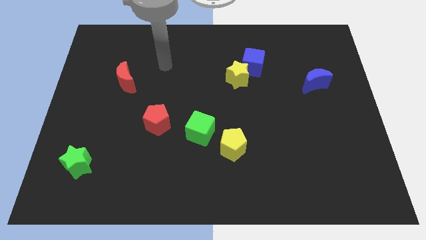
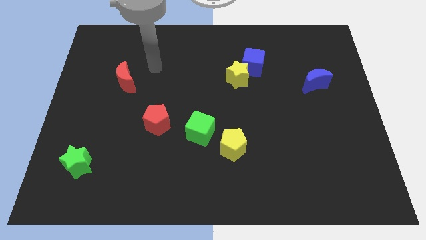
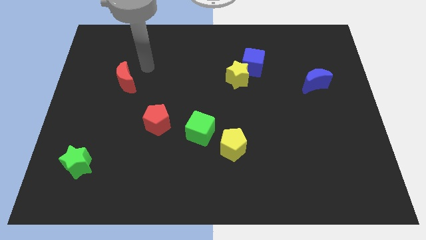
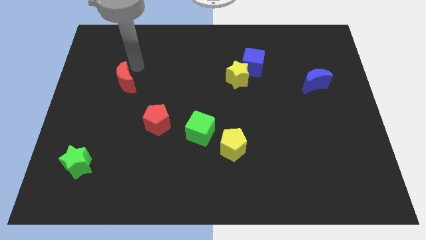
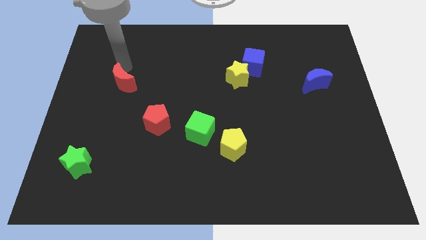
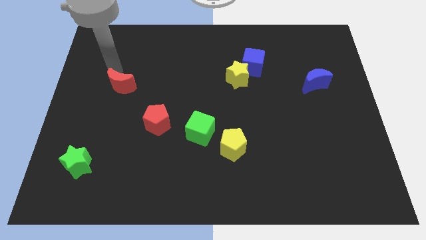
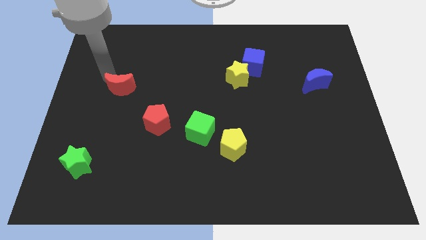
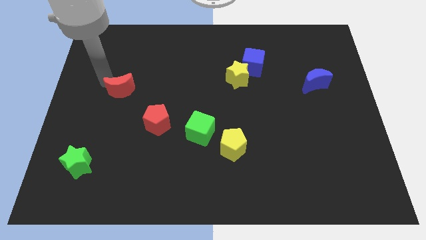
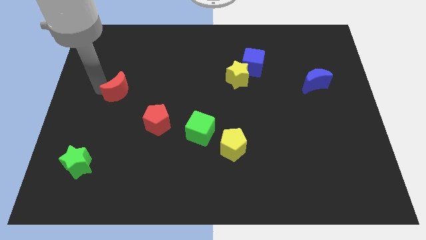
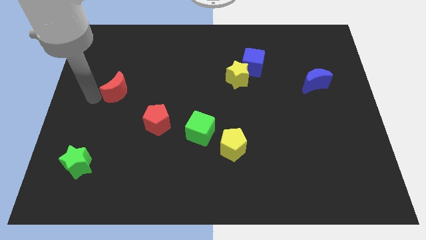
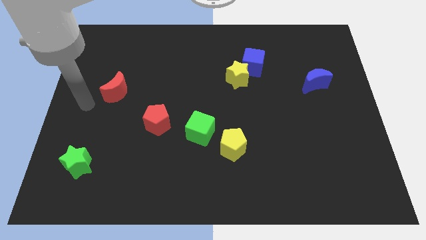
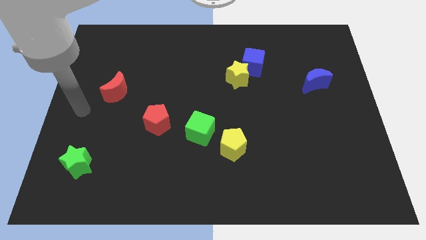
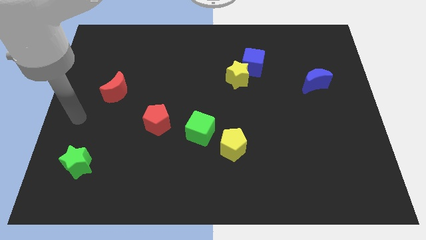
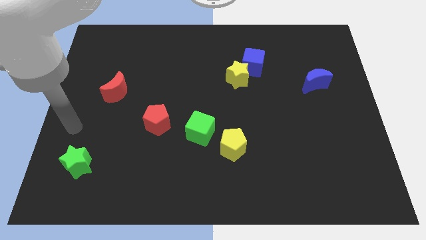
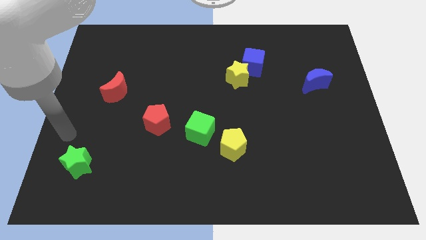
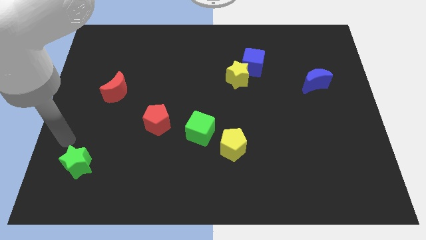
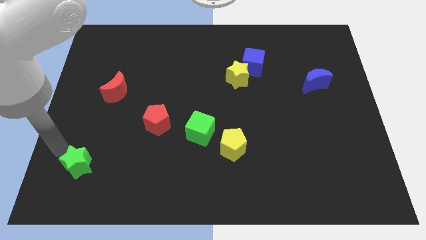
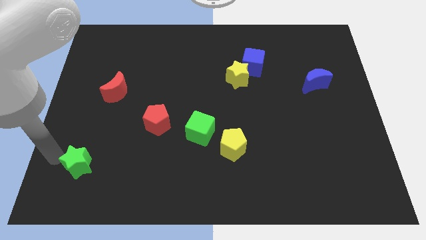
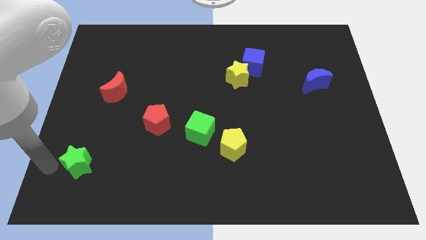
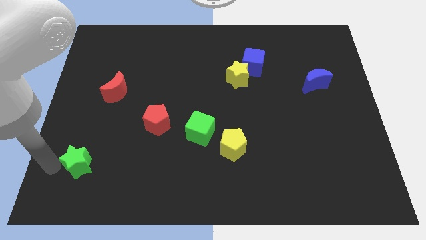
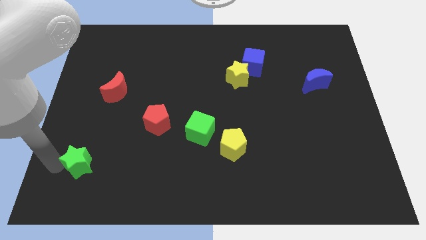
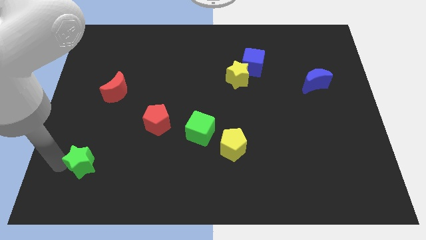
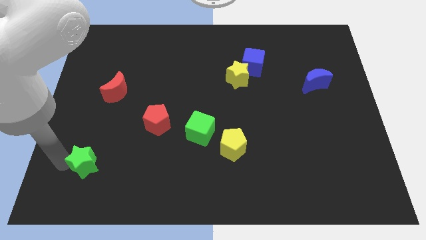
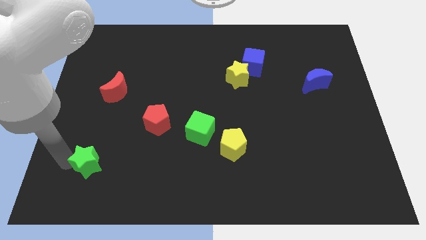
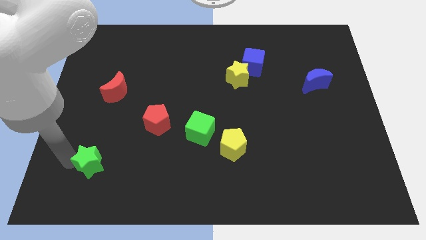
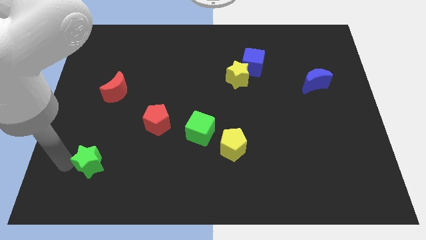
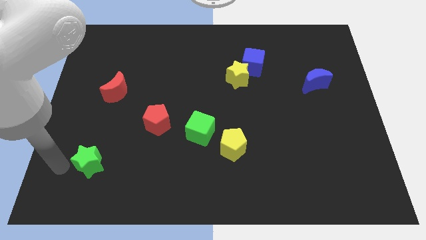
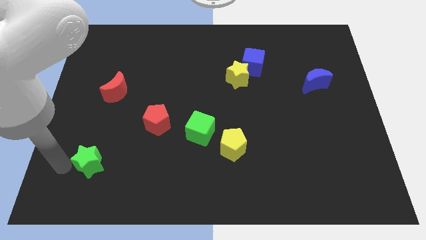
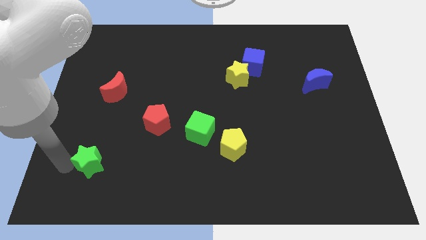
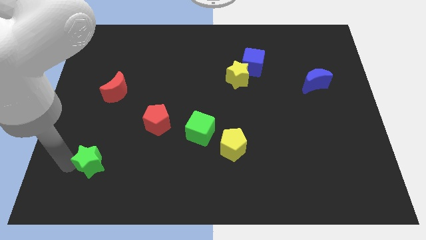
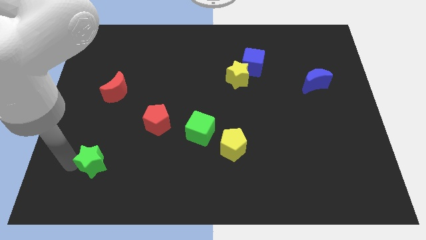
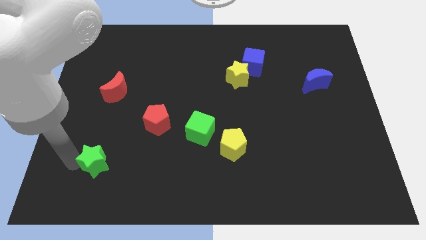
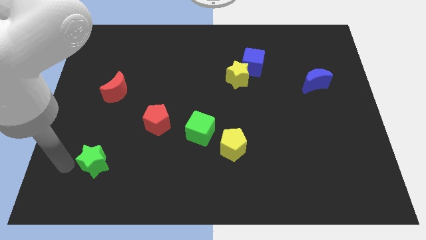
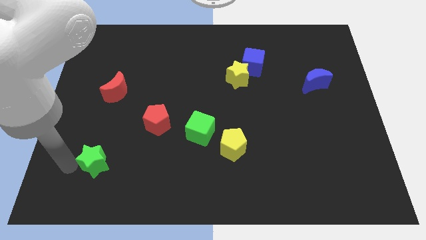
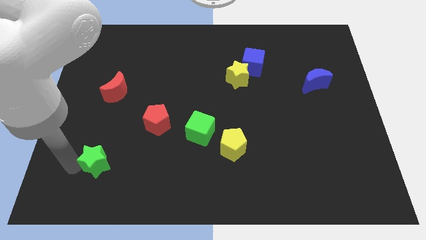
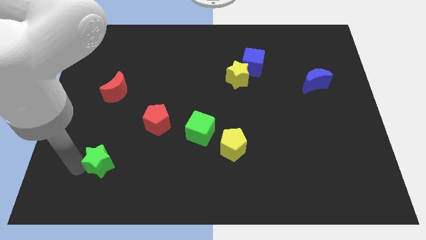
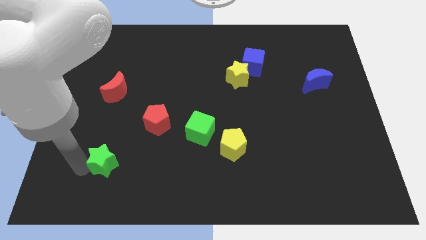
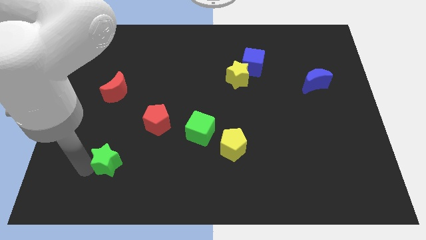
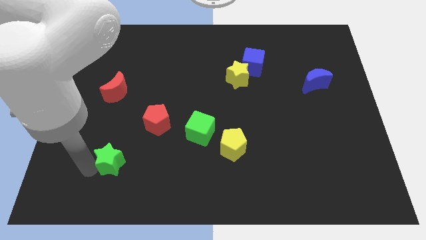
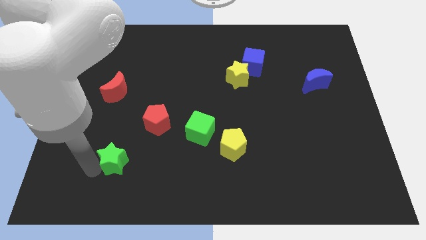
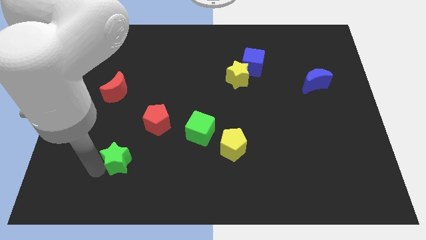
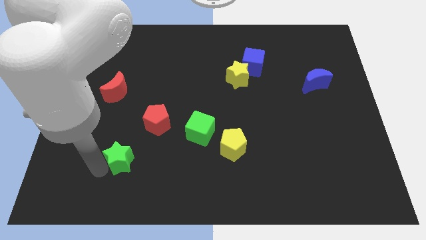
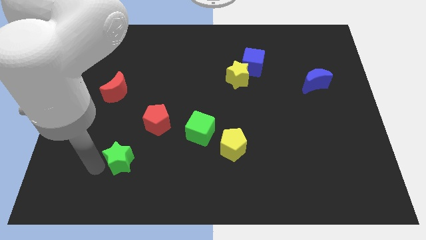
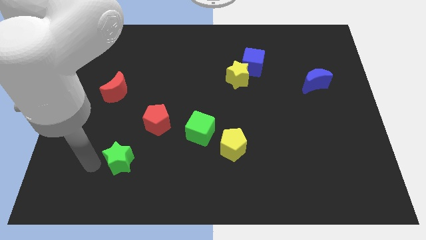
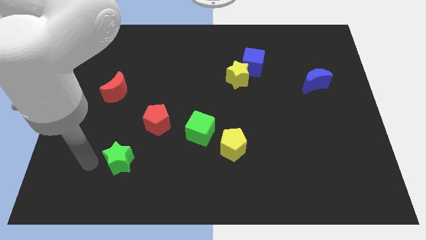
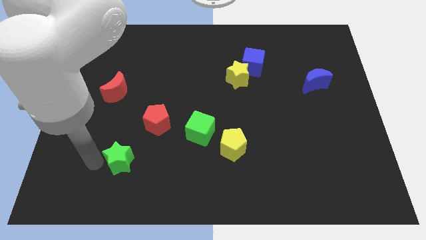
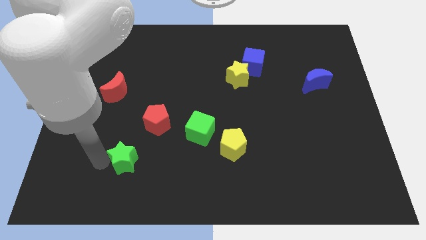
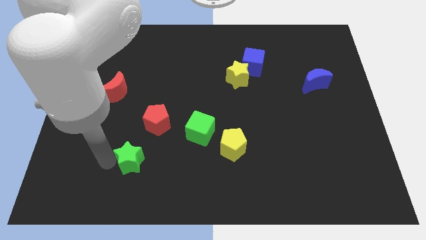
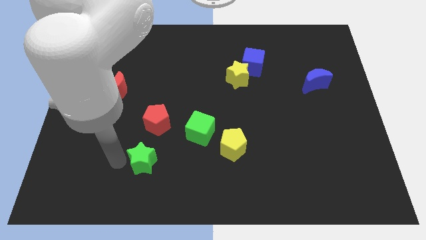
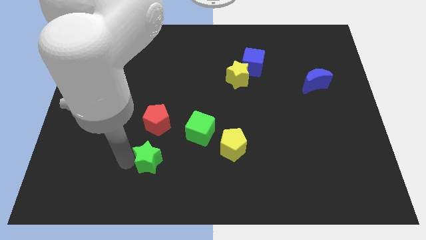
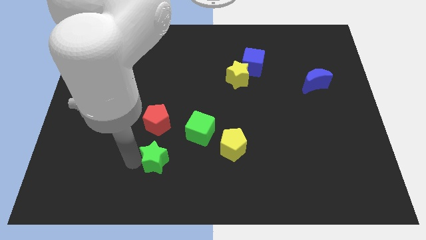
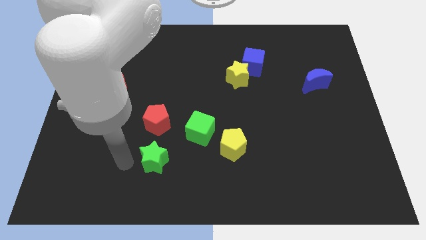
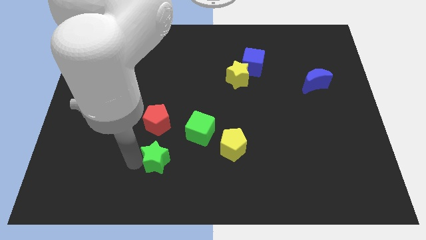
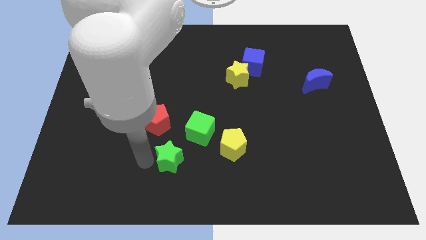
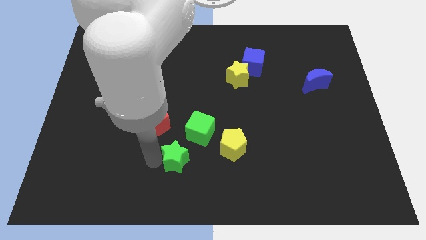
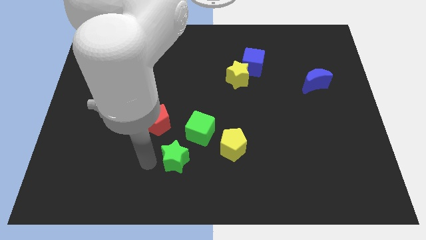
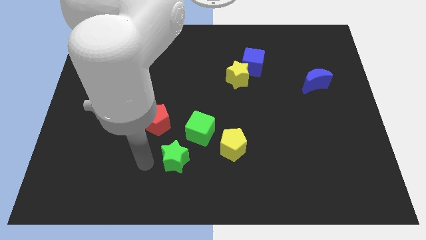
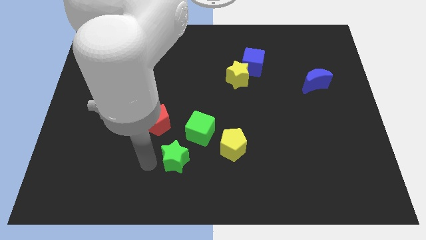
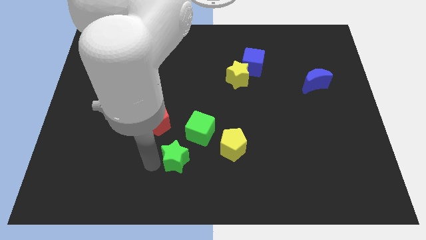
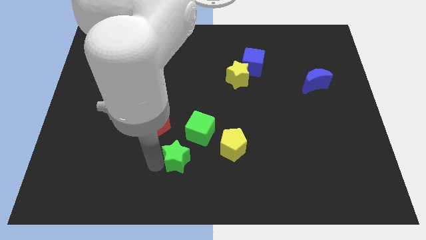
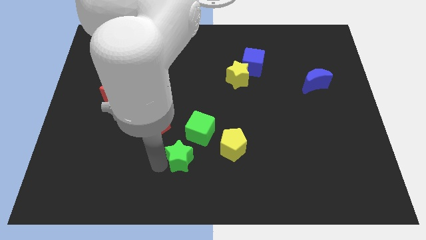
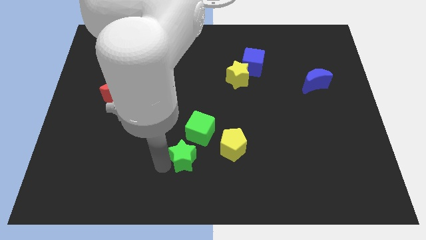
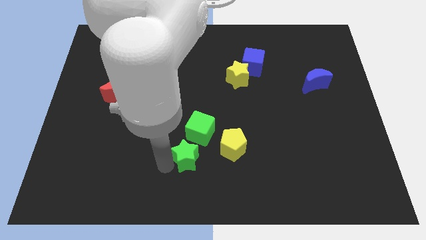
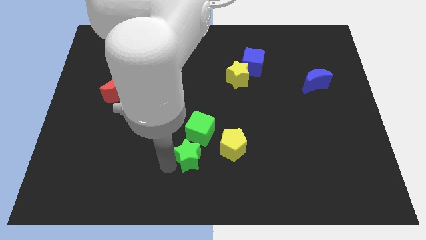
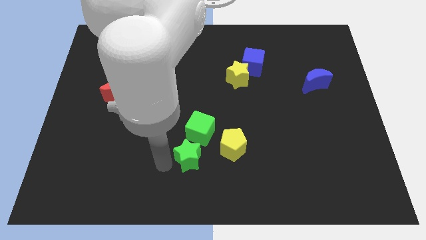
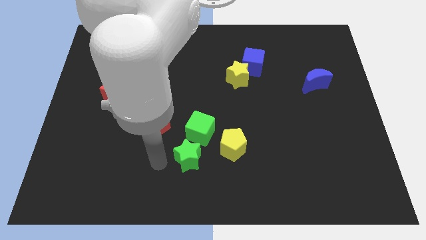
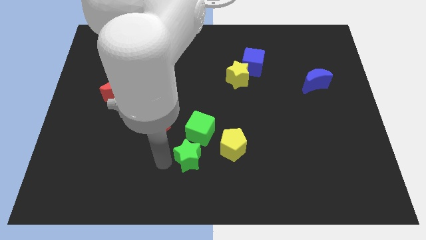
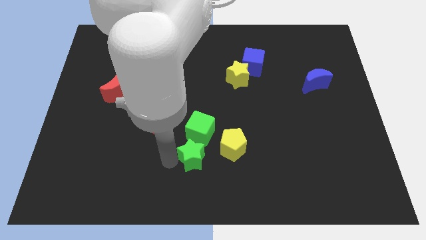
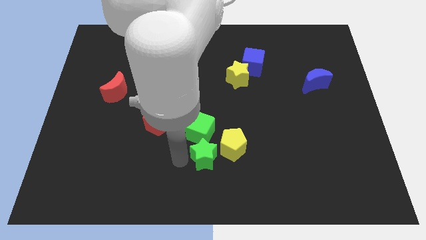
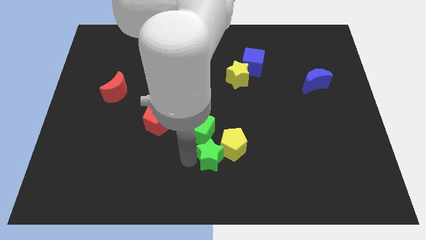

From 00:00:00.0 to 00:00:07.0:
slide the green star next to the yellow pentagon
